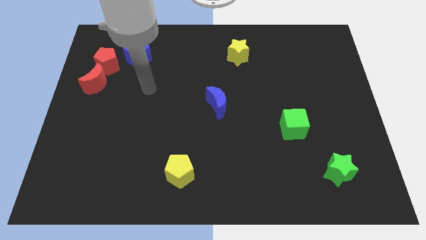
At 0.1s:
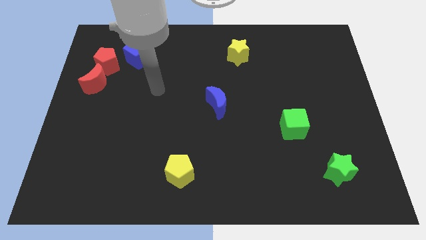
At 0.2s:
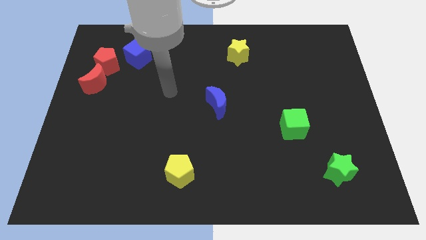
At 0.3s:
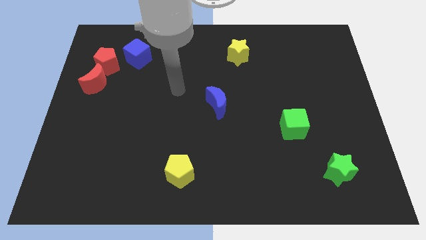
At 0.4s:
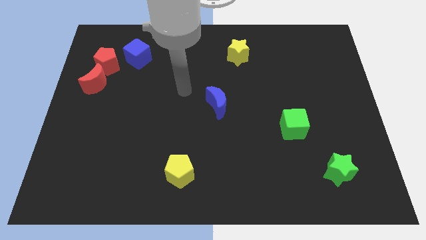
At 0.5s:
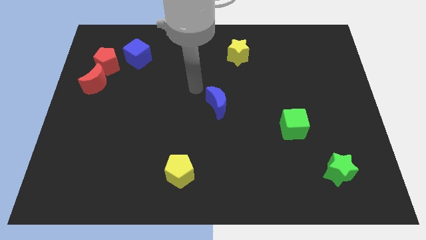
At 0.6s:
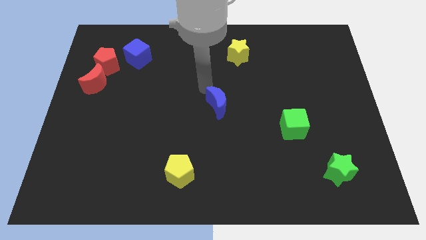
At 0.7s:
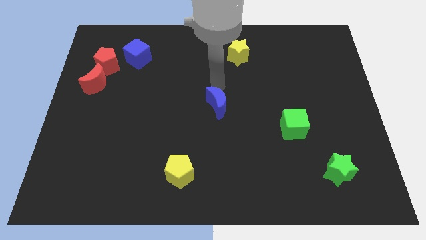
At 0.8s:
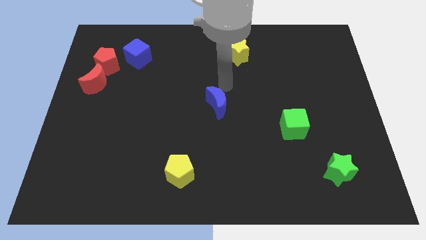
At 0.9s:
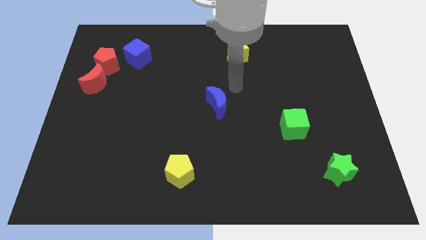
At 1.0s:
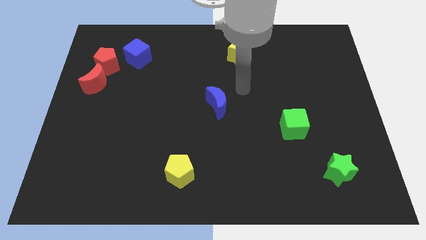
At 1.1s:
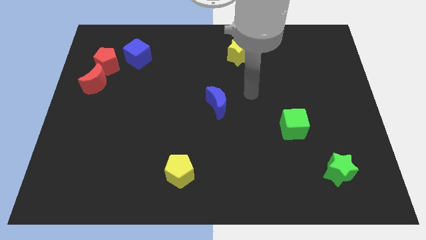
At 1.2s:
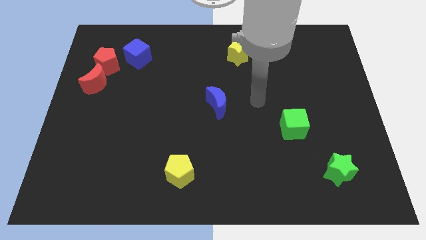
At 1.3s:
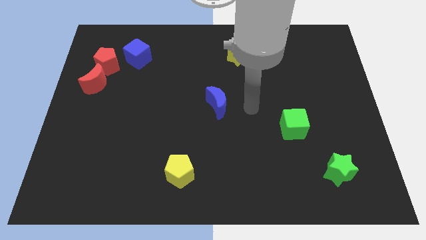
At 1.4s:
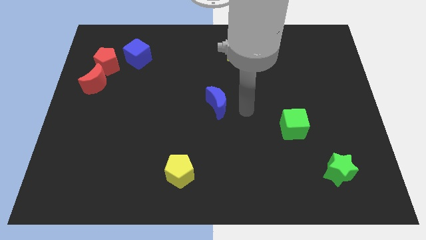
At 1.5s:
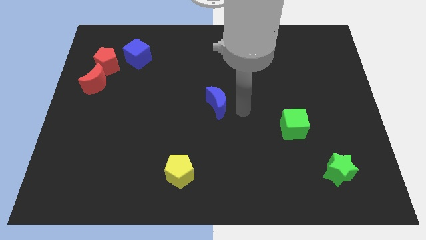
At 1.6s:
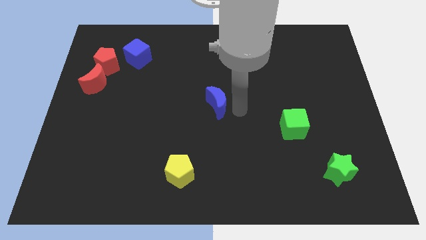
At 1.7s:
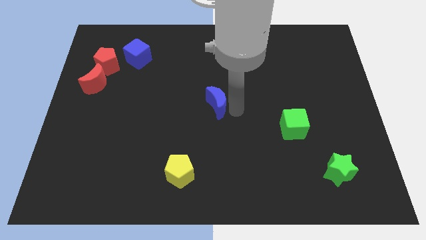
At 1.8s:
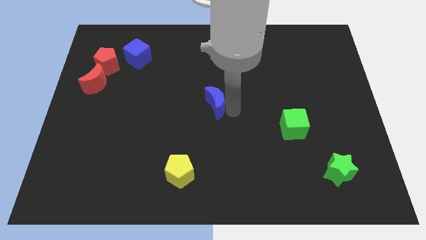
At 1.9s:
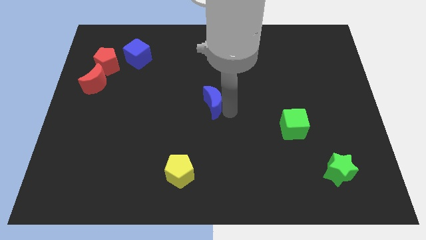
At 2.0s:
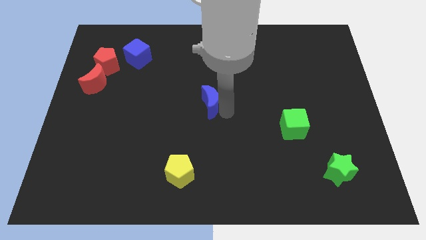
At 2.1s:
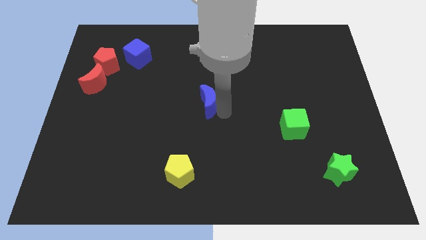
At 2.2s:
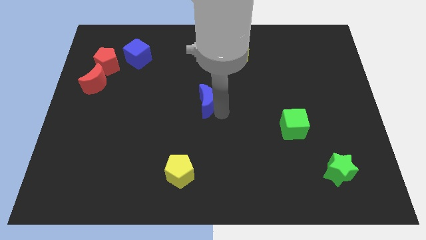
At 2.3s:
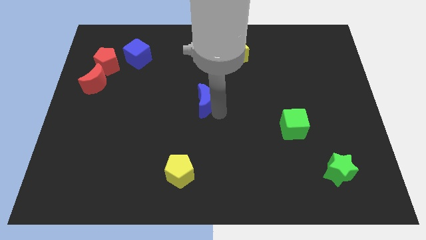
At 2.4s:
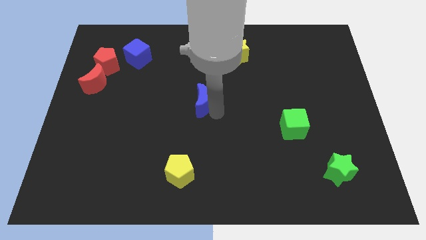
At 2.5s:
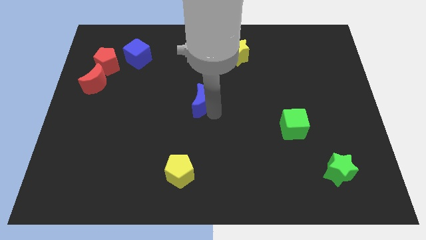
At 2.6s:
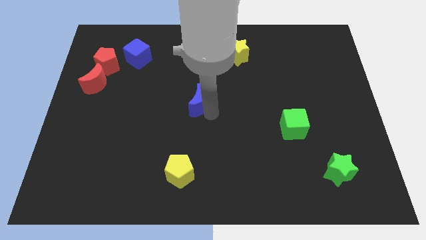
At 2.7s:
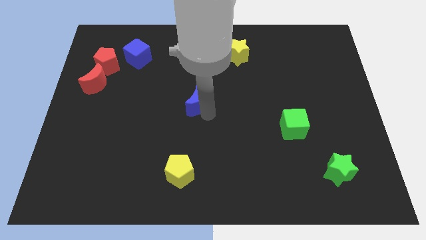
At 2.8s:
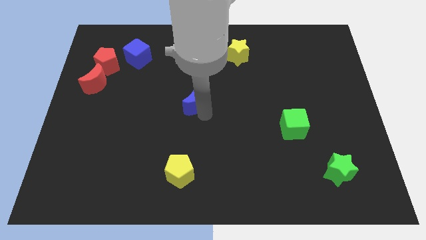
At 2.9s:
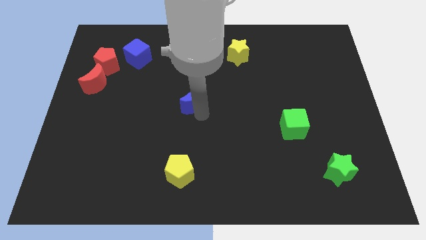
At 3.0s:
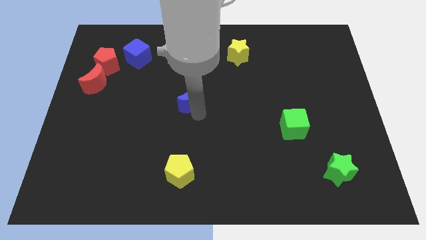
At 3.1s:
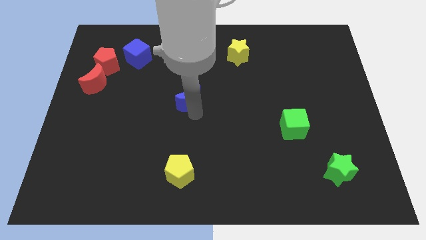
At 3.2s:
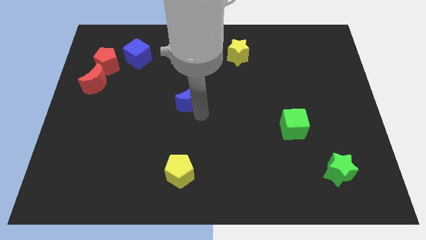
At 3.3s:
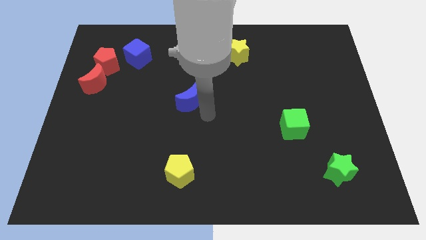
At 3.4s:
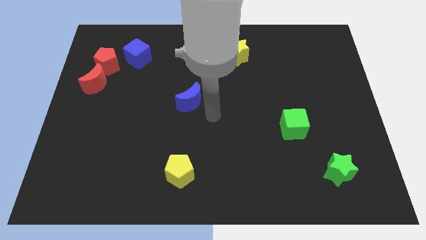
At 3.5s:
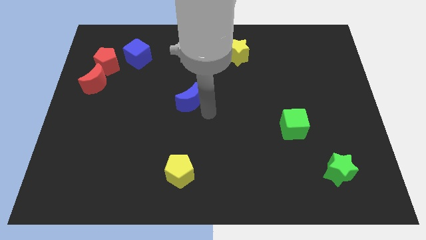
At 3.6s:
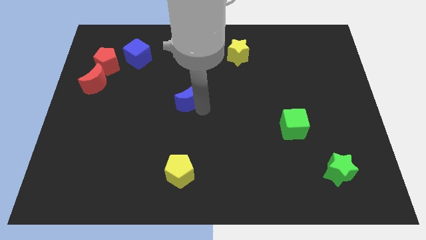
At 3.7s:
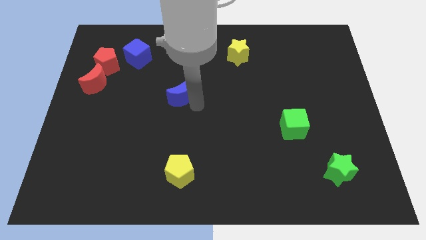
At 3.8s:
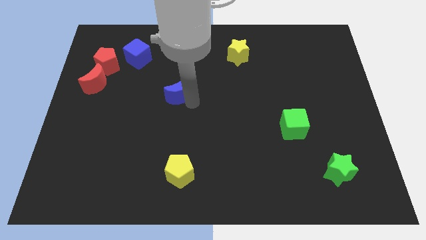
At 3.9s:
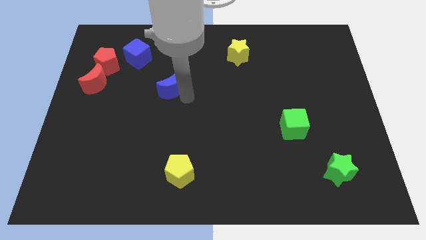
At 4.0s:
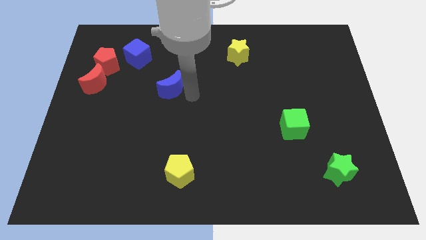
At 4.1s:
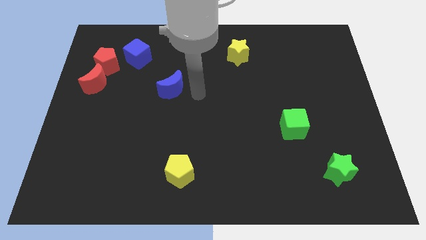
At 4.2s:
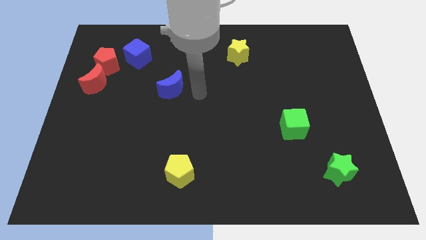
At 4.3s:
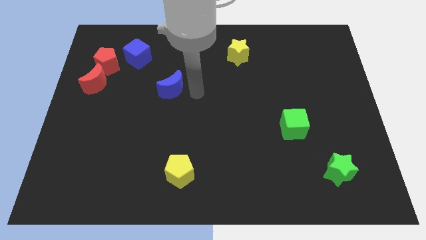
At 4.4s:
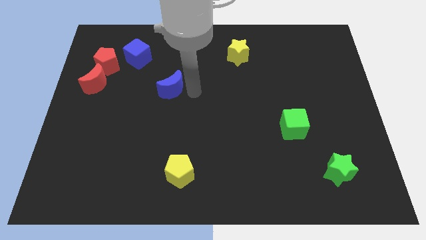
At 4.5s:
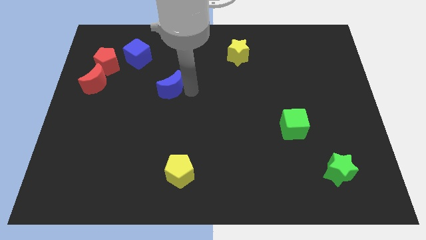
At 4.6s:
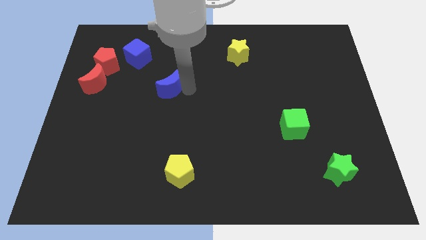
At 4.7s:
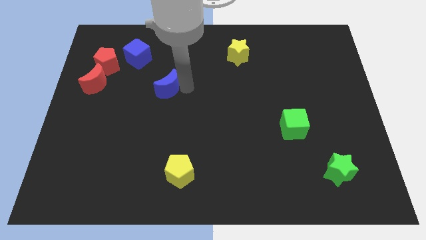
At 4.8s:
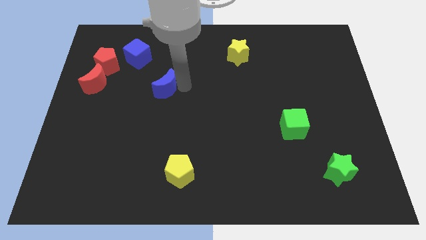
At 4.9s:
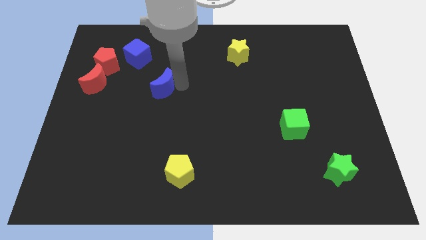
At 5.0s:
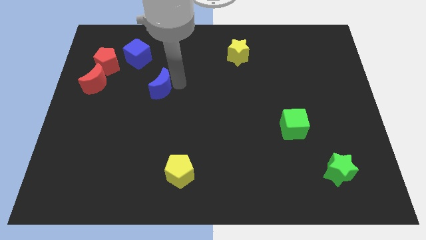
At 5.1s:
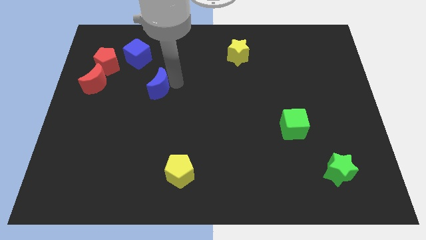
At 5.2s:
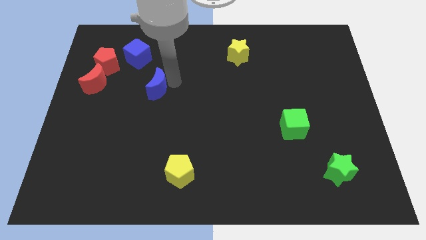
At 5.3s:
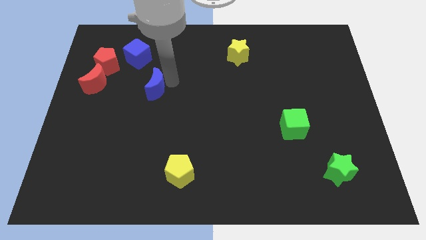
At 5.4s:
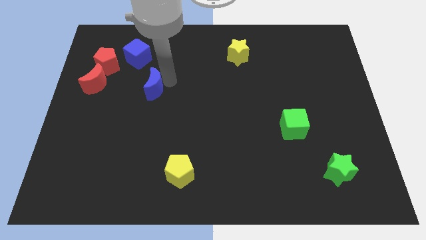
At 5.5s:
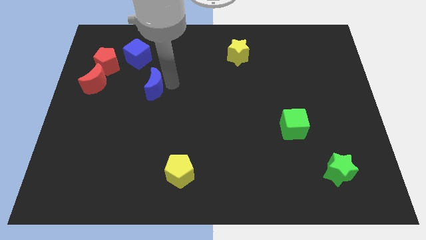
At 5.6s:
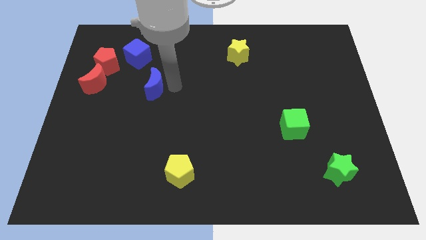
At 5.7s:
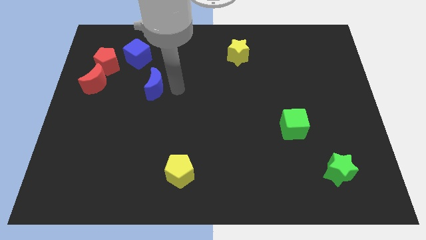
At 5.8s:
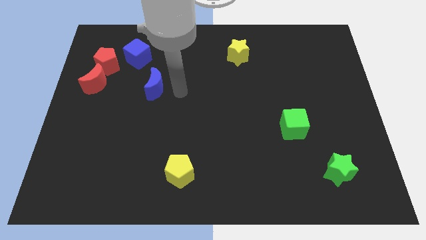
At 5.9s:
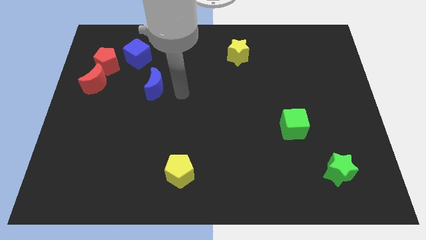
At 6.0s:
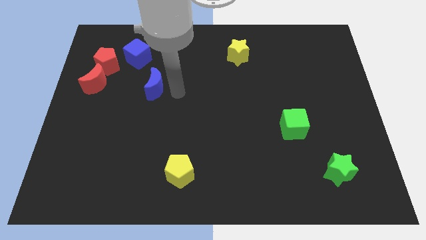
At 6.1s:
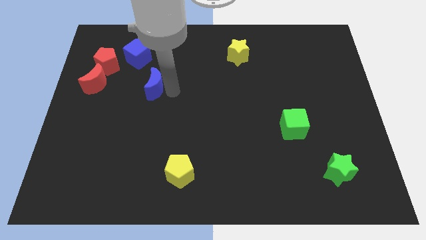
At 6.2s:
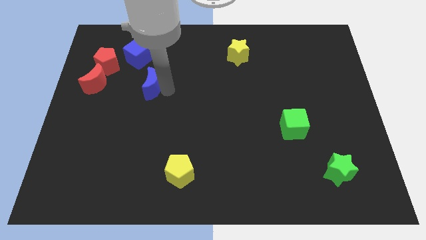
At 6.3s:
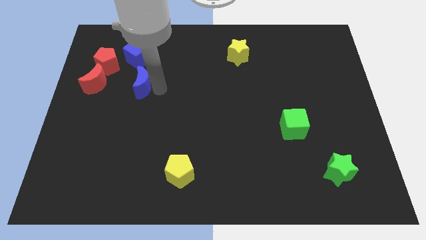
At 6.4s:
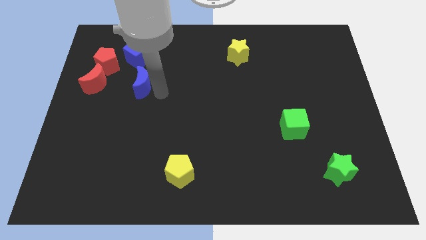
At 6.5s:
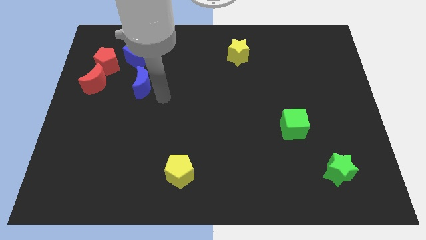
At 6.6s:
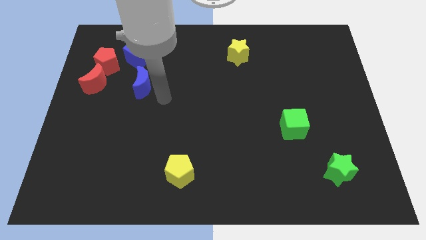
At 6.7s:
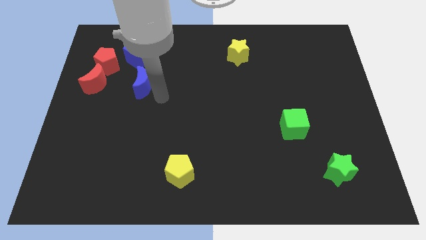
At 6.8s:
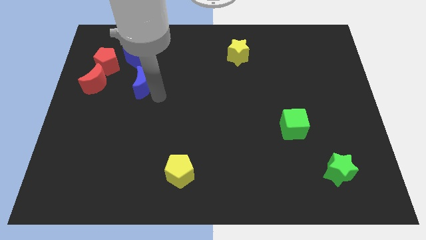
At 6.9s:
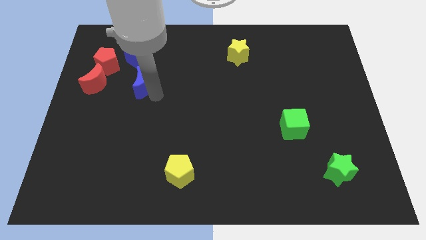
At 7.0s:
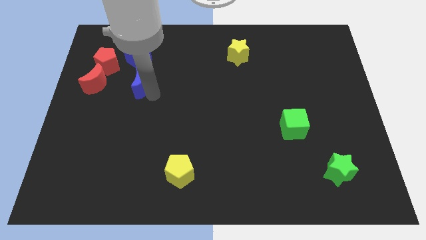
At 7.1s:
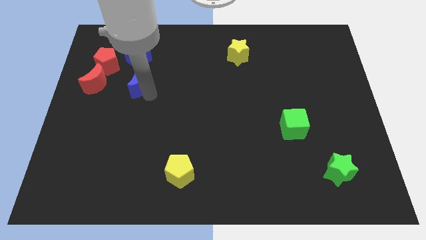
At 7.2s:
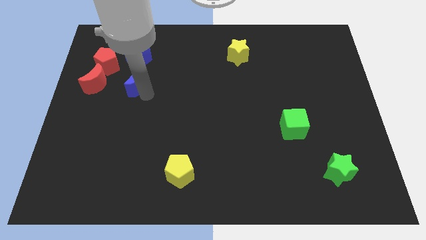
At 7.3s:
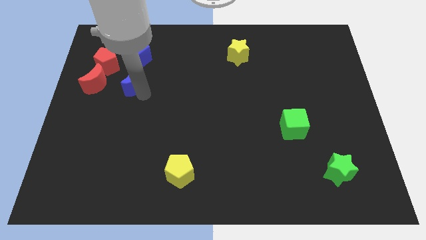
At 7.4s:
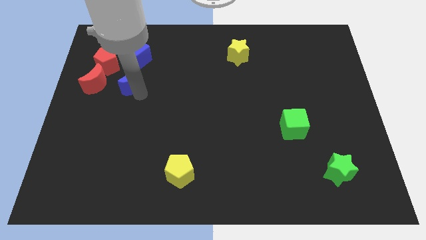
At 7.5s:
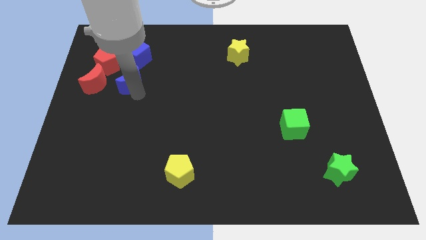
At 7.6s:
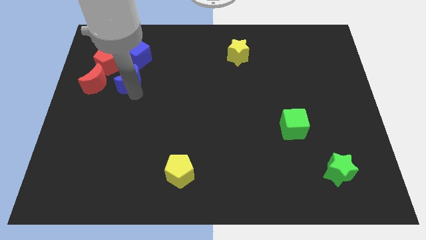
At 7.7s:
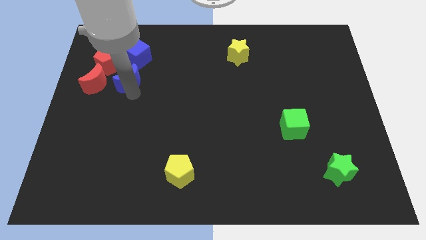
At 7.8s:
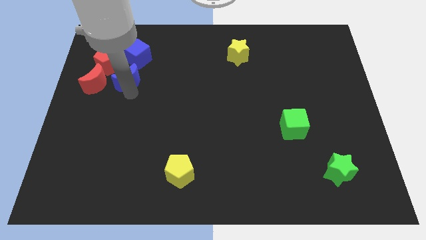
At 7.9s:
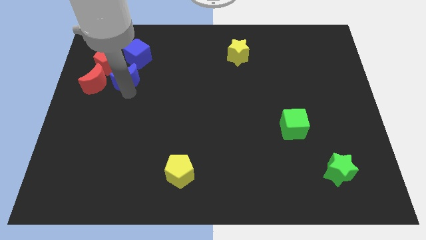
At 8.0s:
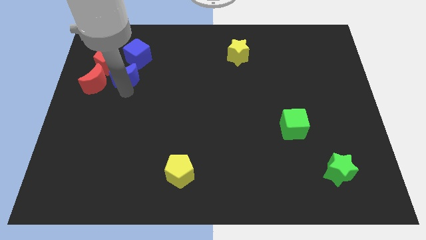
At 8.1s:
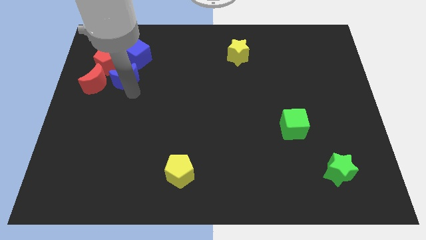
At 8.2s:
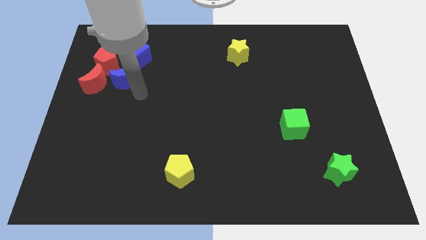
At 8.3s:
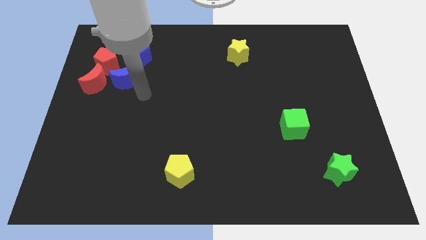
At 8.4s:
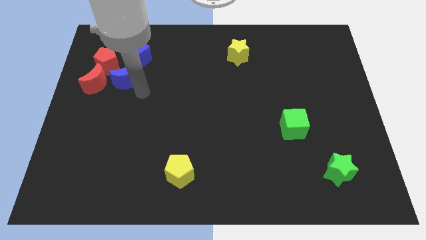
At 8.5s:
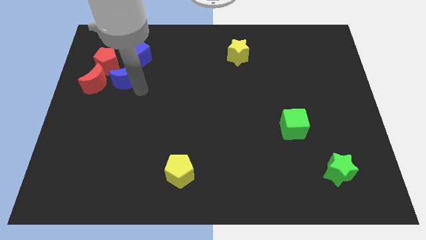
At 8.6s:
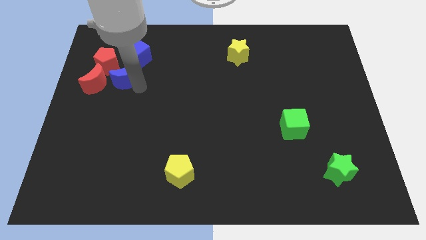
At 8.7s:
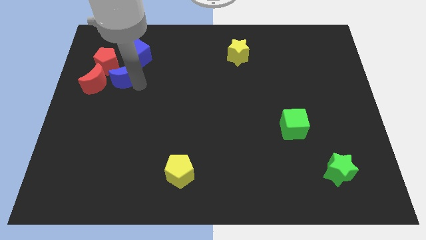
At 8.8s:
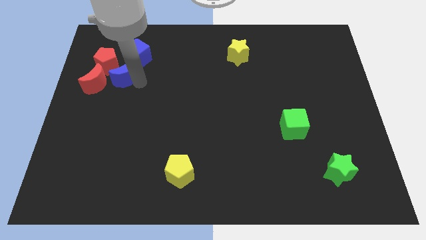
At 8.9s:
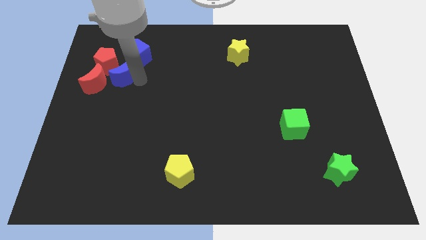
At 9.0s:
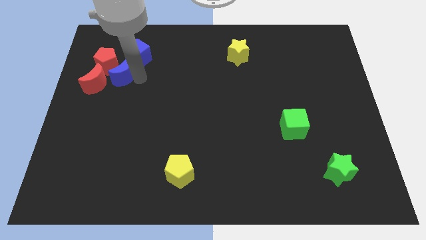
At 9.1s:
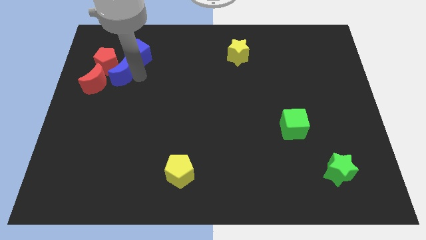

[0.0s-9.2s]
move the blue moon towards the red pentagon
